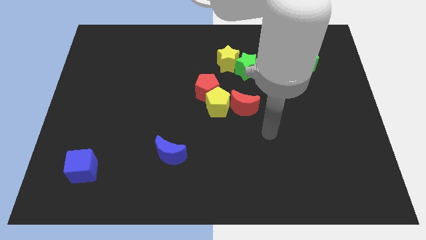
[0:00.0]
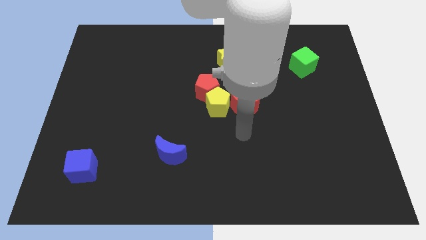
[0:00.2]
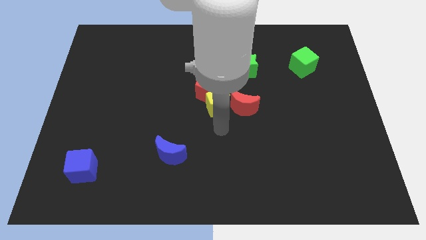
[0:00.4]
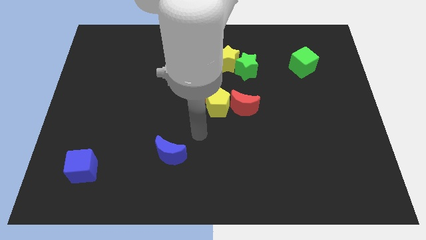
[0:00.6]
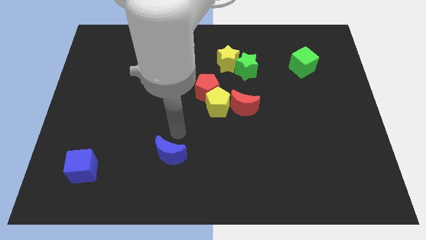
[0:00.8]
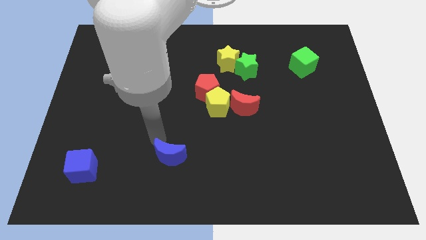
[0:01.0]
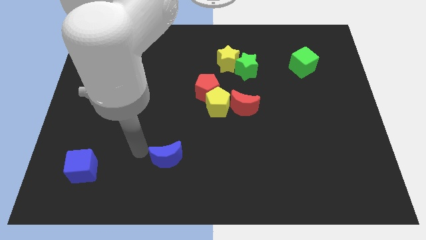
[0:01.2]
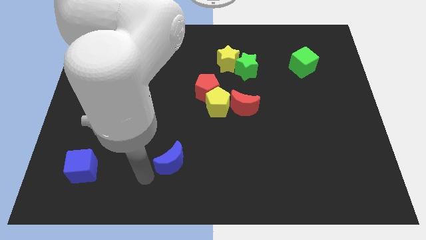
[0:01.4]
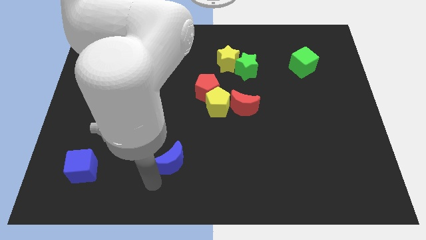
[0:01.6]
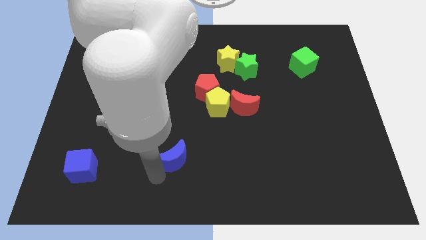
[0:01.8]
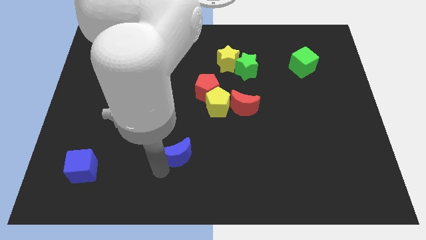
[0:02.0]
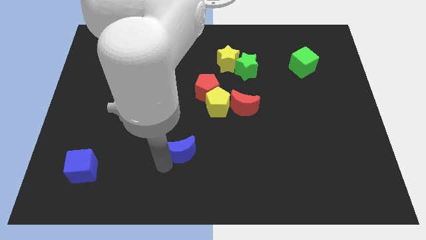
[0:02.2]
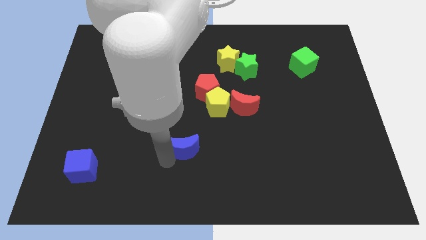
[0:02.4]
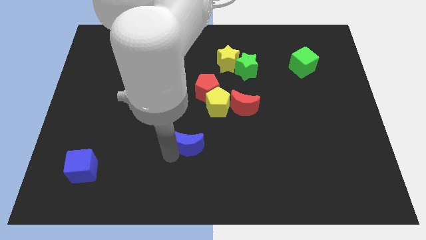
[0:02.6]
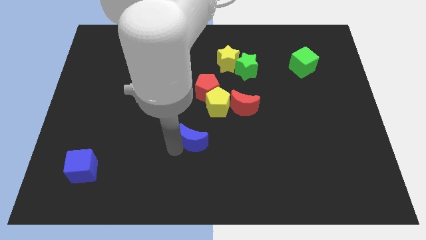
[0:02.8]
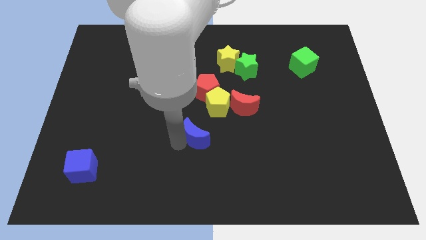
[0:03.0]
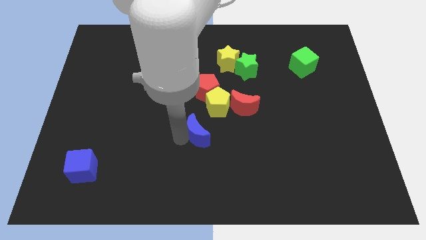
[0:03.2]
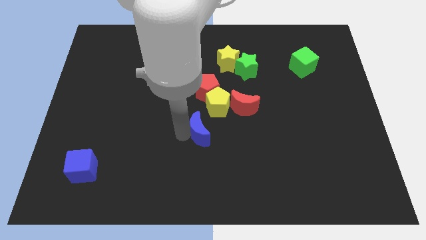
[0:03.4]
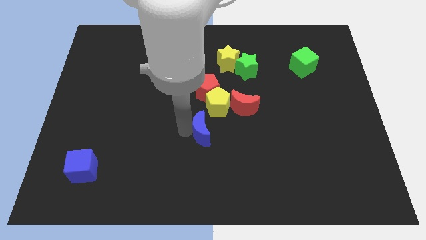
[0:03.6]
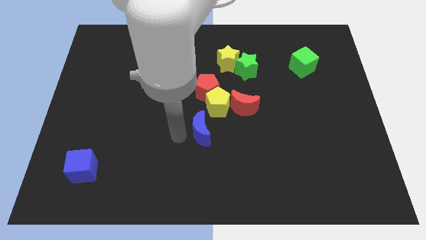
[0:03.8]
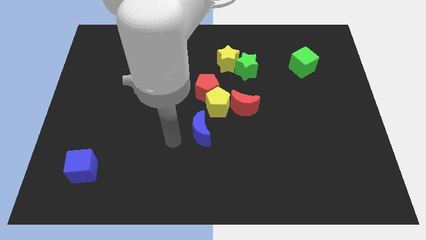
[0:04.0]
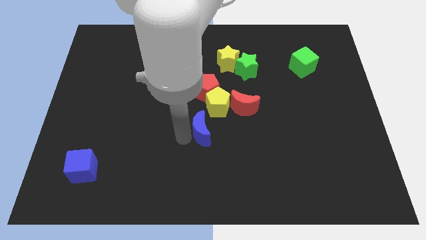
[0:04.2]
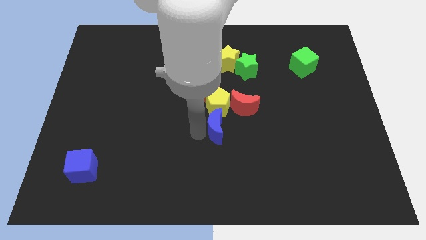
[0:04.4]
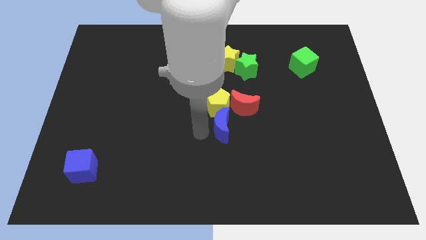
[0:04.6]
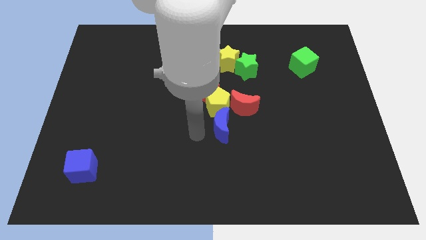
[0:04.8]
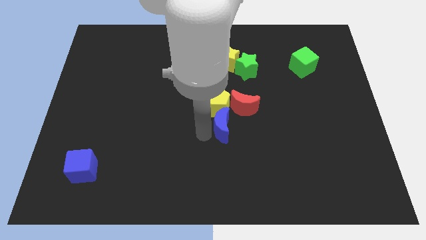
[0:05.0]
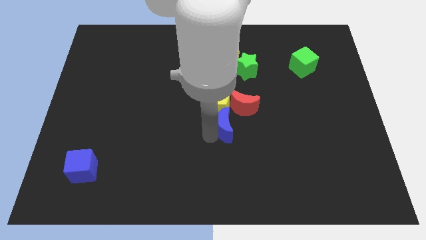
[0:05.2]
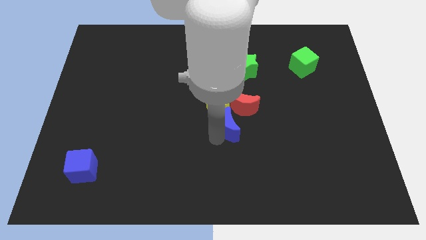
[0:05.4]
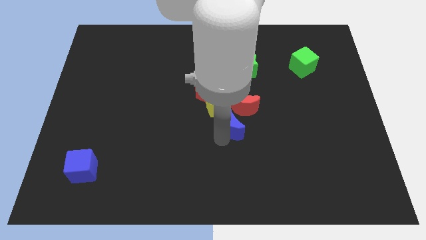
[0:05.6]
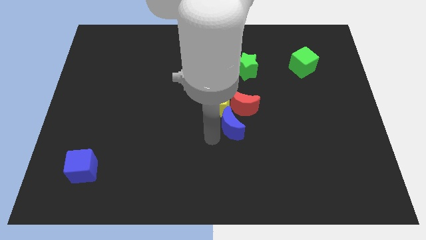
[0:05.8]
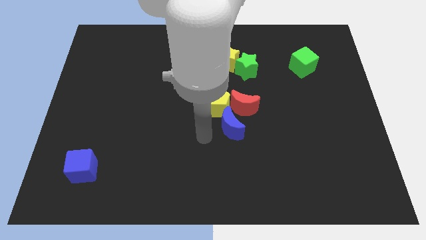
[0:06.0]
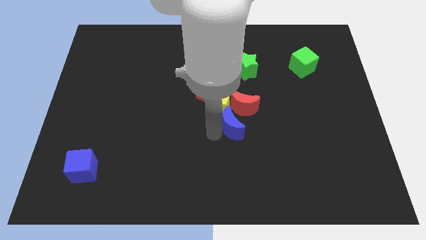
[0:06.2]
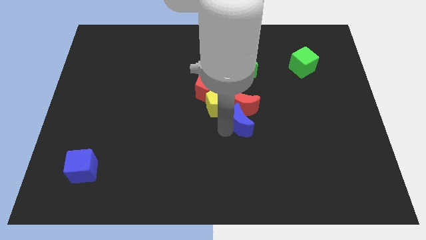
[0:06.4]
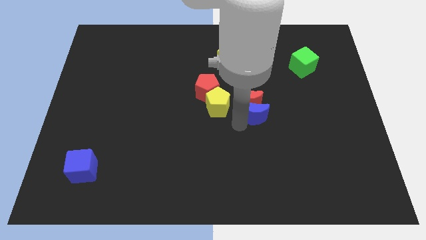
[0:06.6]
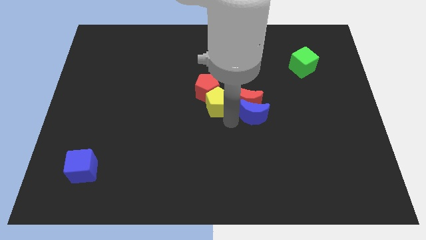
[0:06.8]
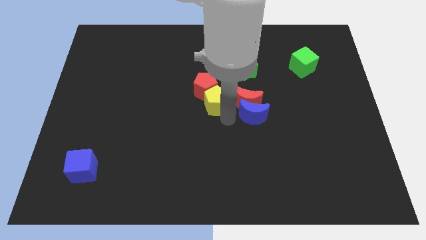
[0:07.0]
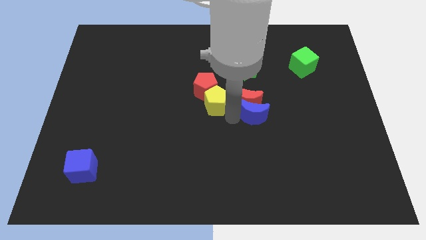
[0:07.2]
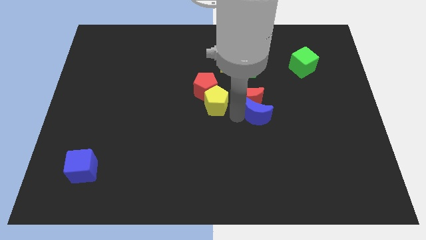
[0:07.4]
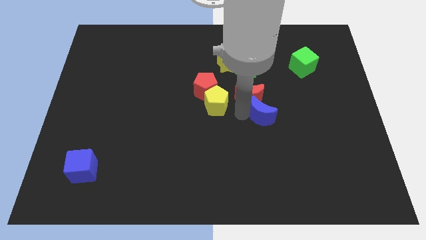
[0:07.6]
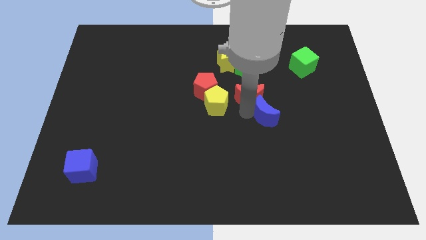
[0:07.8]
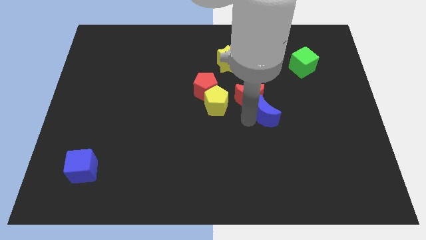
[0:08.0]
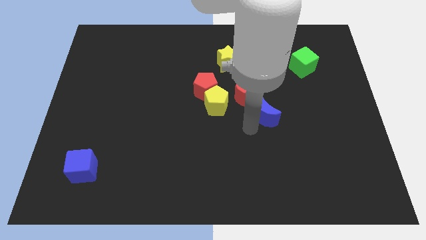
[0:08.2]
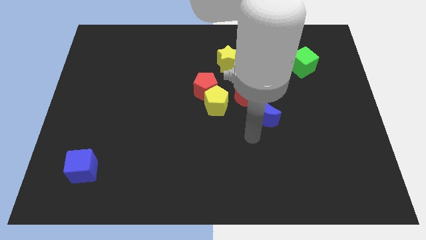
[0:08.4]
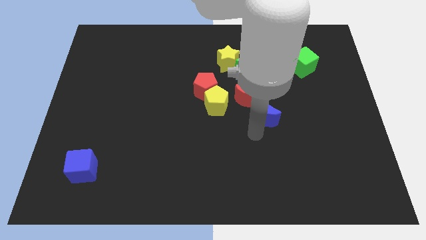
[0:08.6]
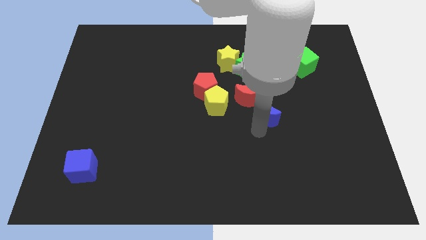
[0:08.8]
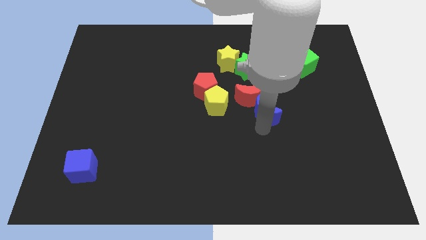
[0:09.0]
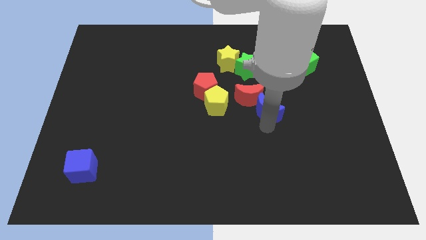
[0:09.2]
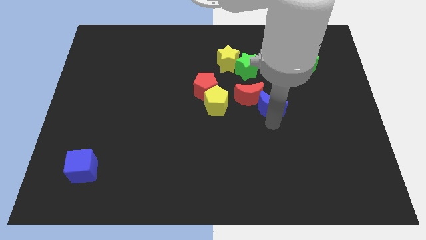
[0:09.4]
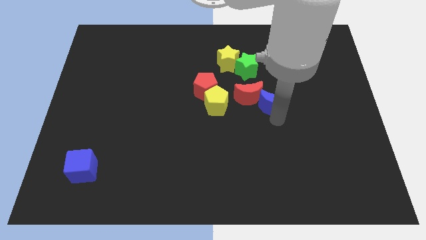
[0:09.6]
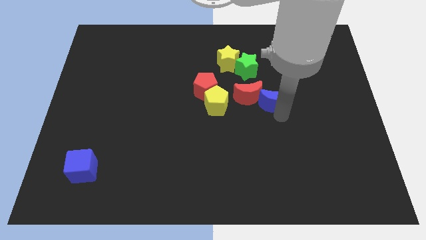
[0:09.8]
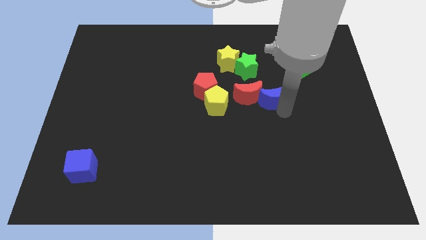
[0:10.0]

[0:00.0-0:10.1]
slide the blue moon diagonally down and to the right of the green star
